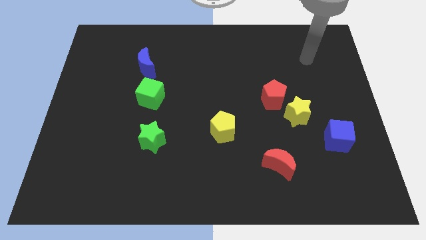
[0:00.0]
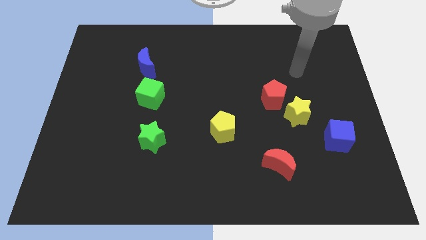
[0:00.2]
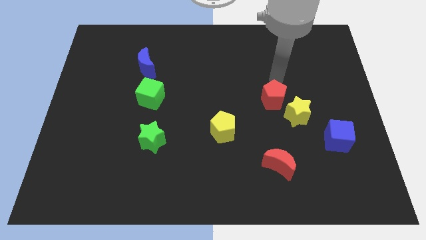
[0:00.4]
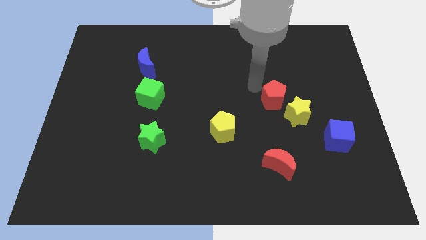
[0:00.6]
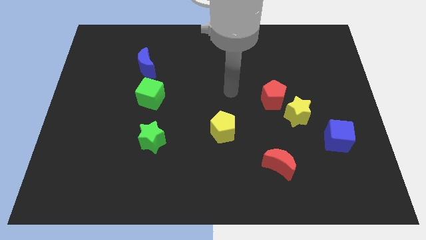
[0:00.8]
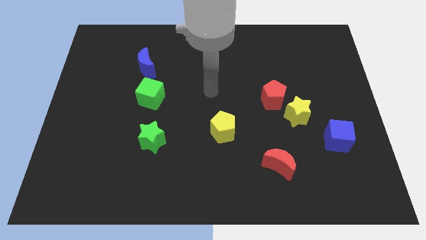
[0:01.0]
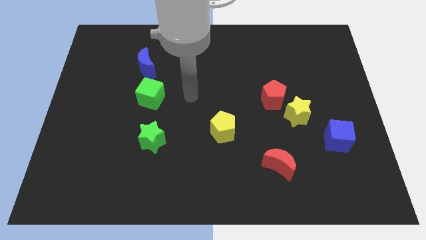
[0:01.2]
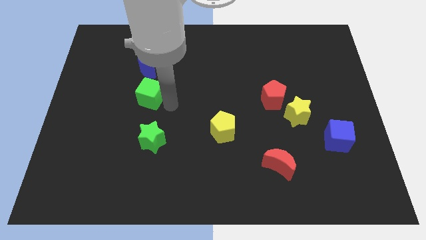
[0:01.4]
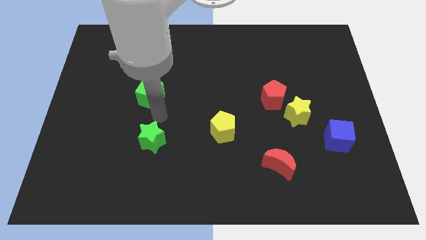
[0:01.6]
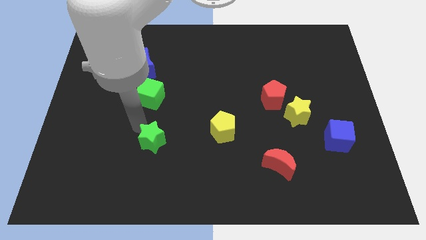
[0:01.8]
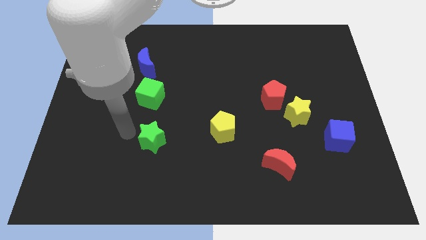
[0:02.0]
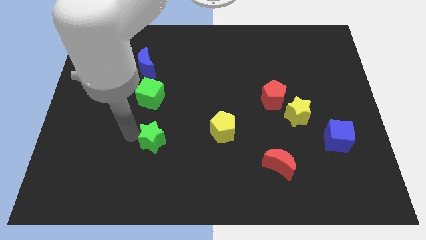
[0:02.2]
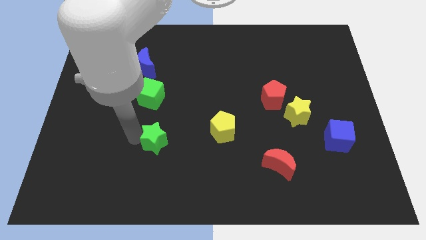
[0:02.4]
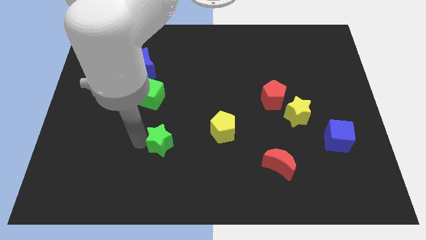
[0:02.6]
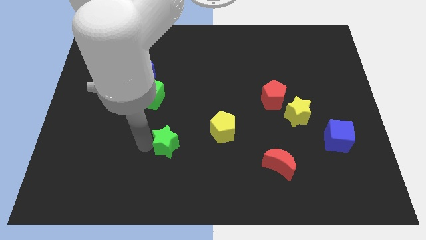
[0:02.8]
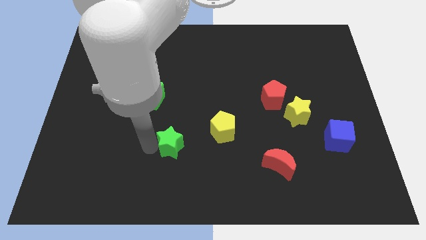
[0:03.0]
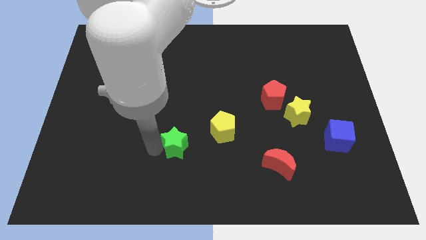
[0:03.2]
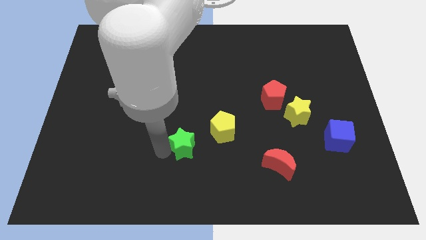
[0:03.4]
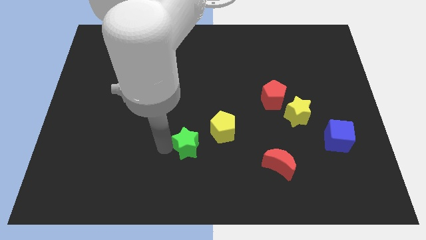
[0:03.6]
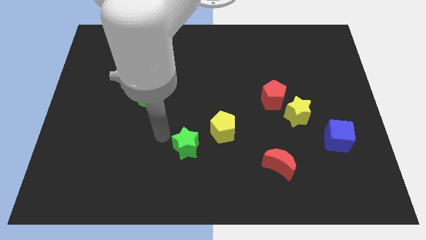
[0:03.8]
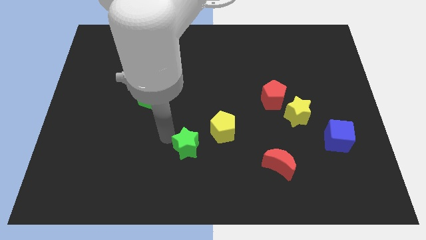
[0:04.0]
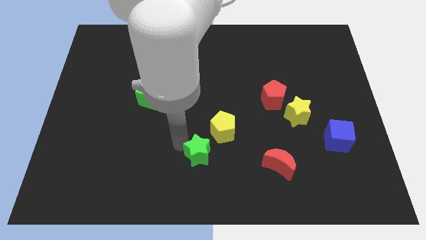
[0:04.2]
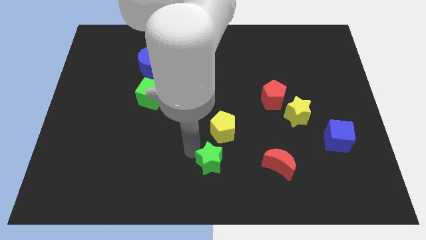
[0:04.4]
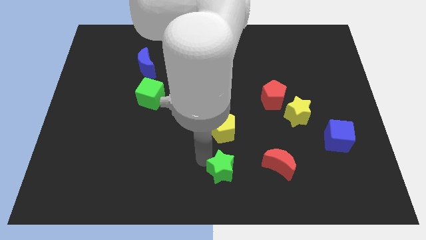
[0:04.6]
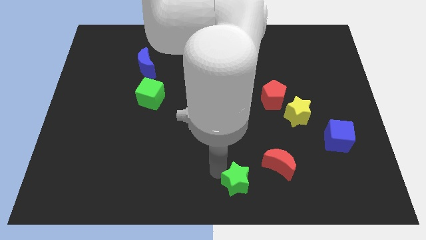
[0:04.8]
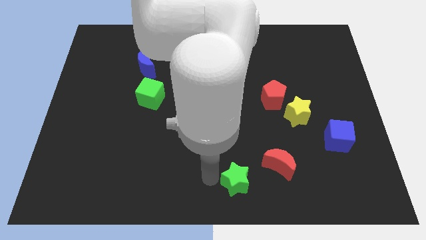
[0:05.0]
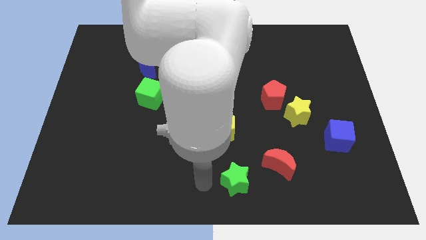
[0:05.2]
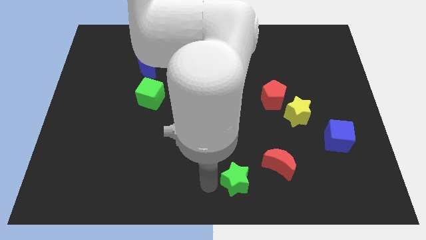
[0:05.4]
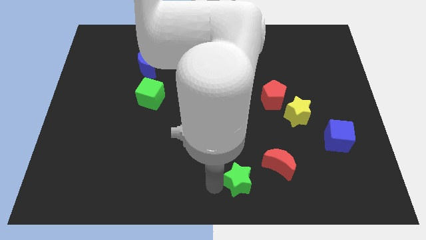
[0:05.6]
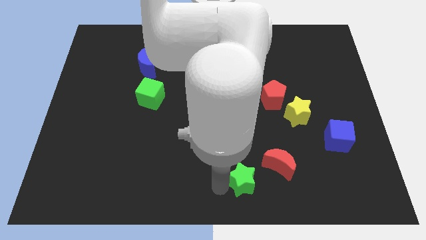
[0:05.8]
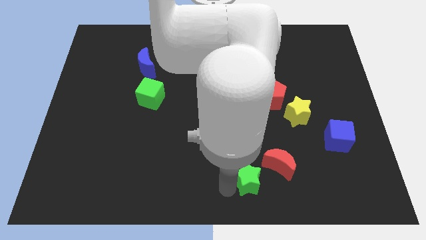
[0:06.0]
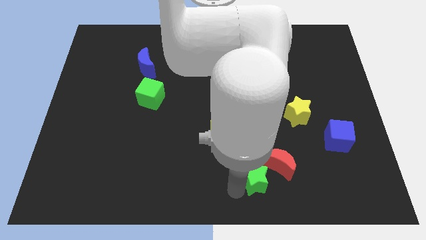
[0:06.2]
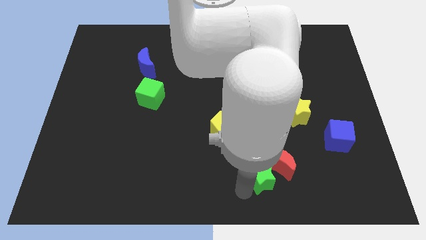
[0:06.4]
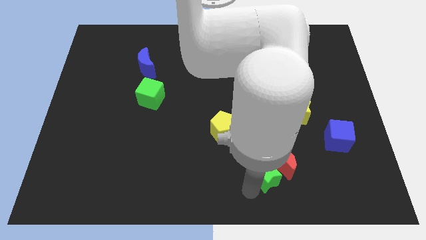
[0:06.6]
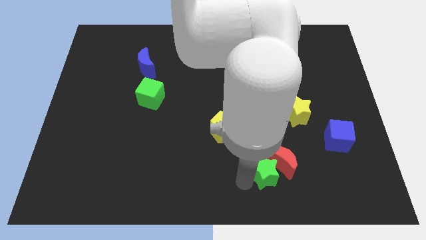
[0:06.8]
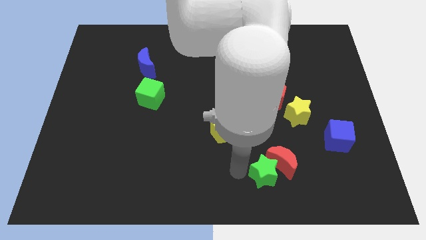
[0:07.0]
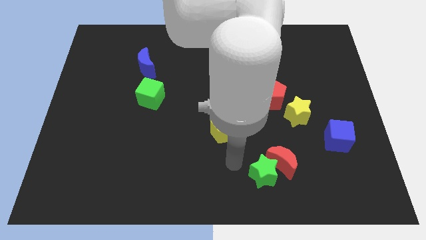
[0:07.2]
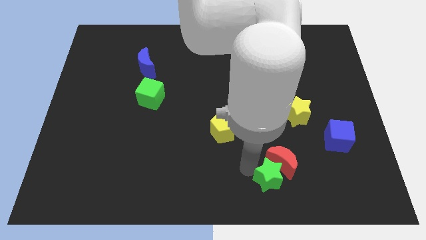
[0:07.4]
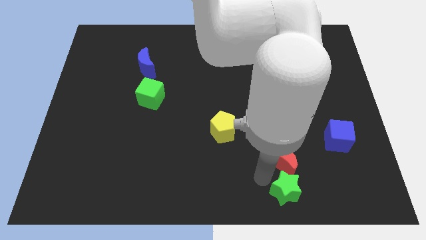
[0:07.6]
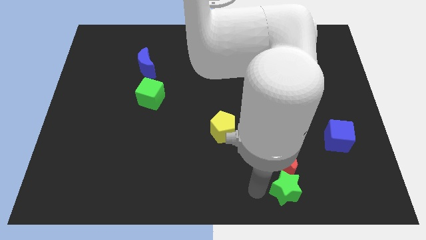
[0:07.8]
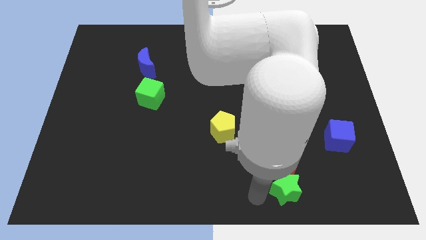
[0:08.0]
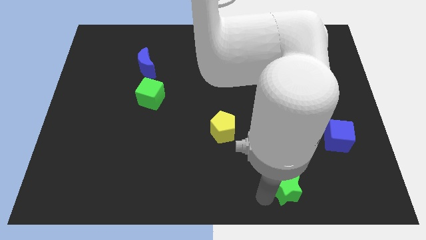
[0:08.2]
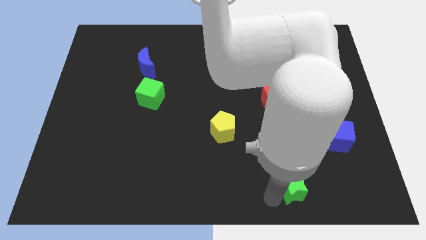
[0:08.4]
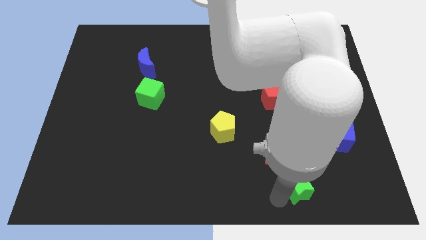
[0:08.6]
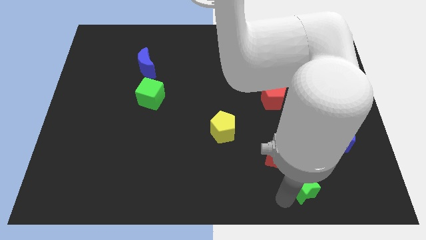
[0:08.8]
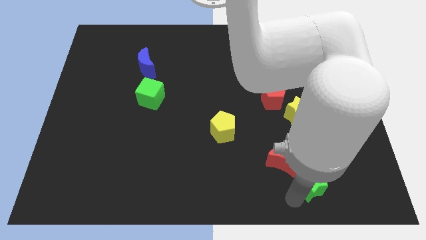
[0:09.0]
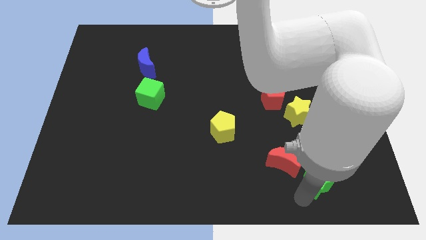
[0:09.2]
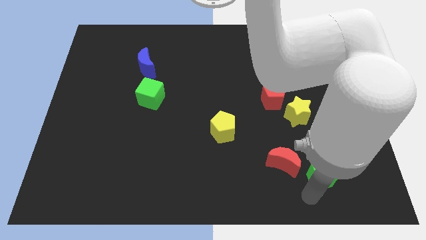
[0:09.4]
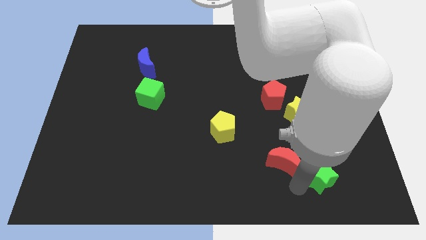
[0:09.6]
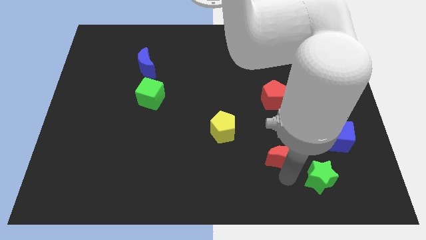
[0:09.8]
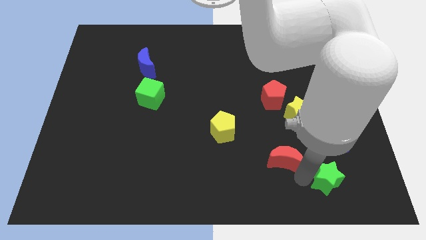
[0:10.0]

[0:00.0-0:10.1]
move the green star below the blue cube

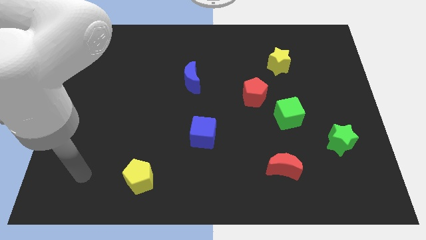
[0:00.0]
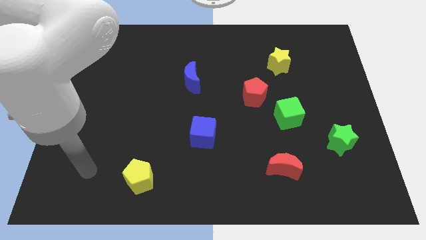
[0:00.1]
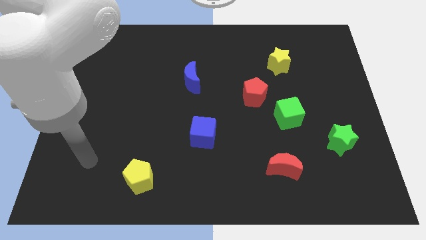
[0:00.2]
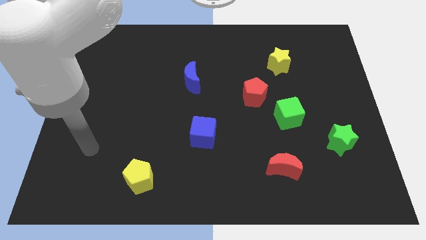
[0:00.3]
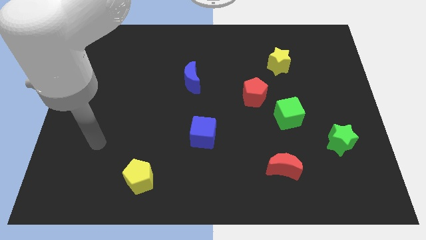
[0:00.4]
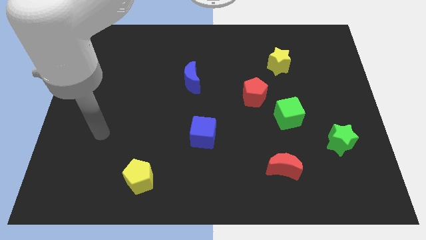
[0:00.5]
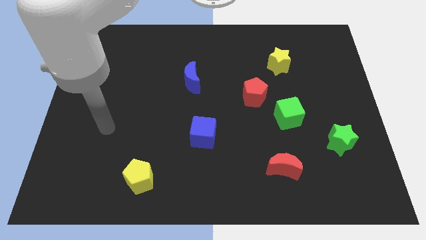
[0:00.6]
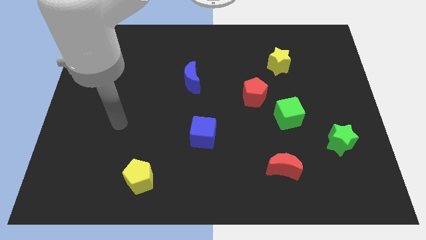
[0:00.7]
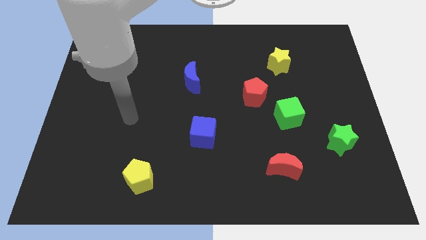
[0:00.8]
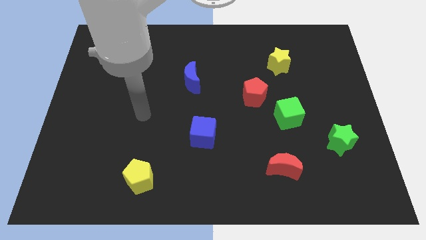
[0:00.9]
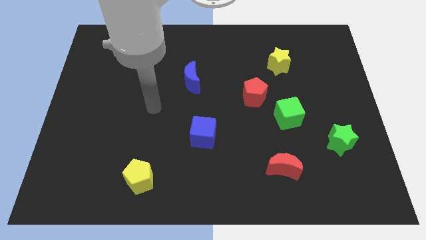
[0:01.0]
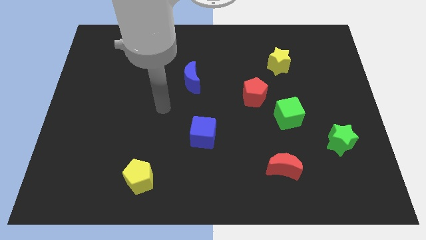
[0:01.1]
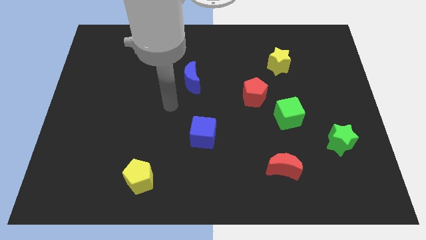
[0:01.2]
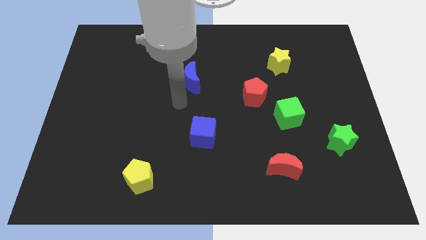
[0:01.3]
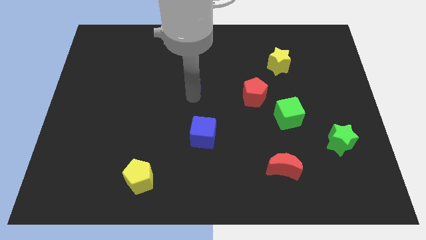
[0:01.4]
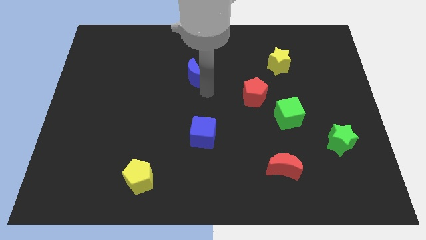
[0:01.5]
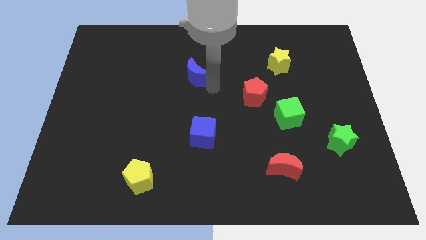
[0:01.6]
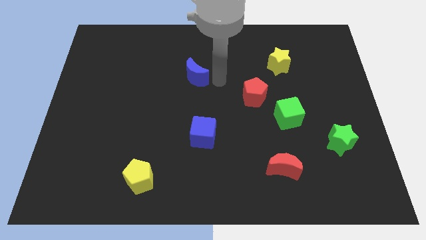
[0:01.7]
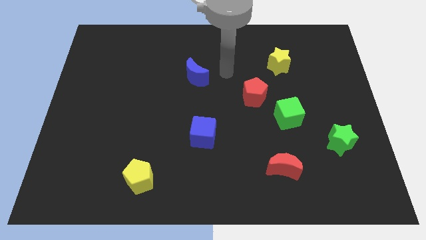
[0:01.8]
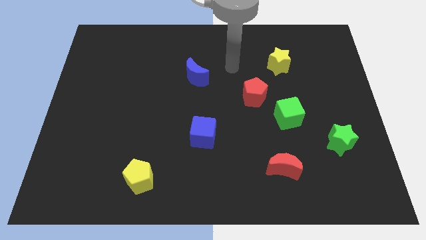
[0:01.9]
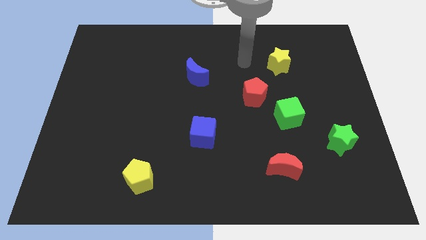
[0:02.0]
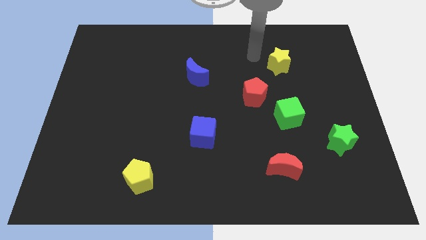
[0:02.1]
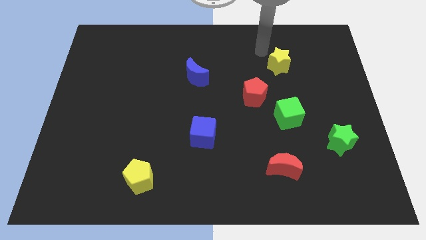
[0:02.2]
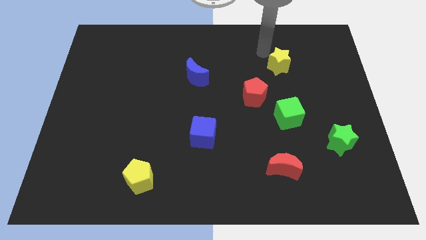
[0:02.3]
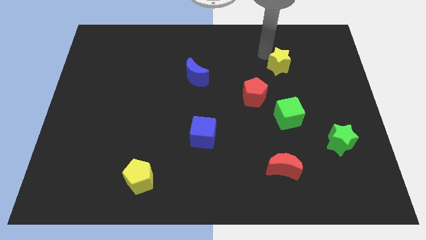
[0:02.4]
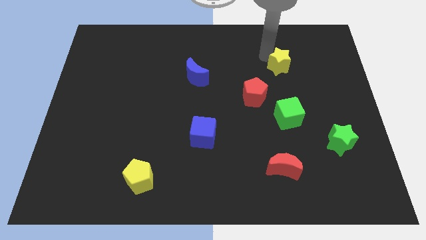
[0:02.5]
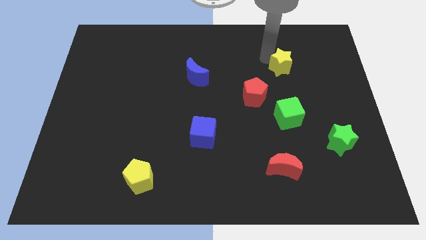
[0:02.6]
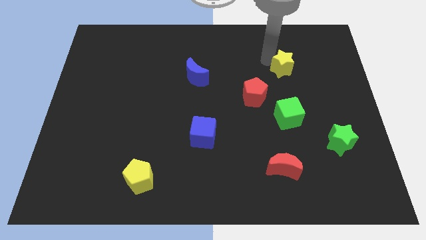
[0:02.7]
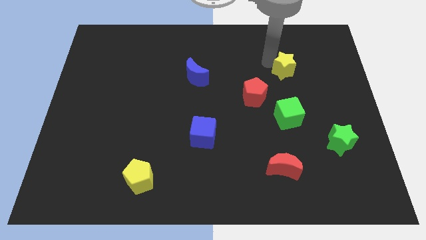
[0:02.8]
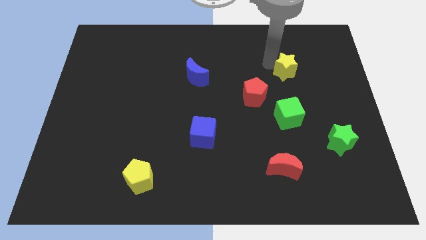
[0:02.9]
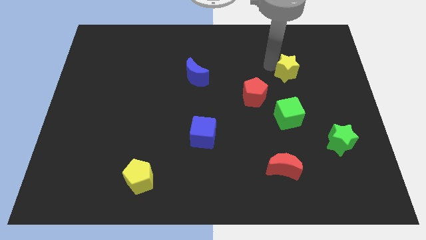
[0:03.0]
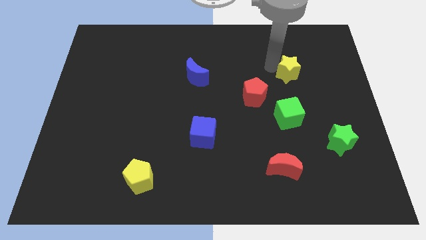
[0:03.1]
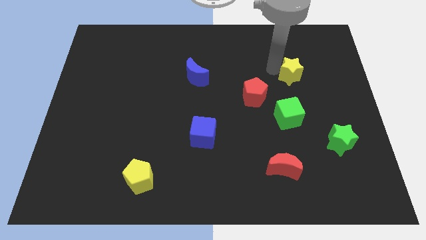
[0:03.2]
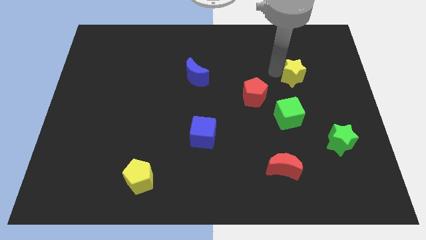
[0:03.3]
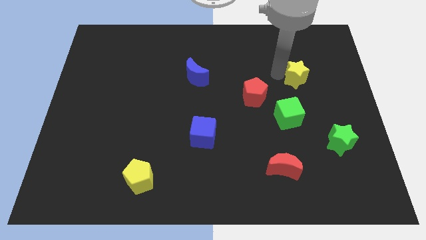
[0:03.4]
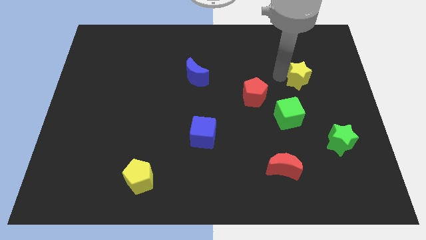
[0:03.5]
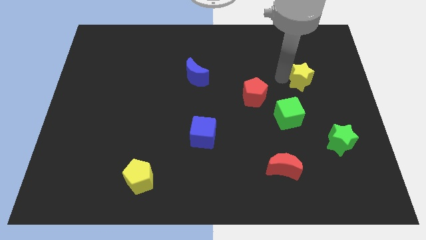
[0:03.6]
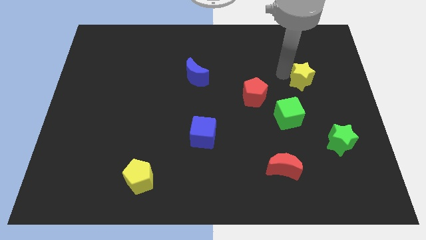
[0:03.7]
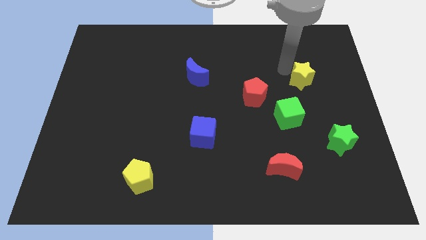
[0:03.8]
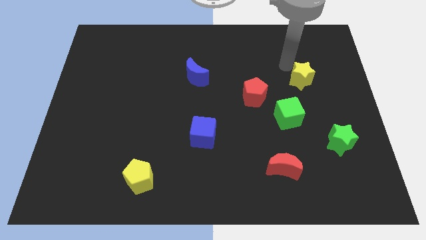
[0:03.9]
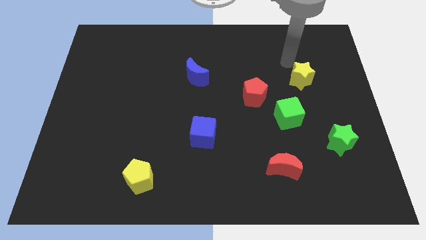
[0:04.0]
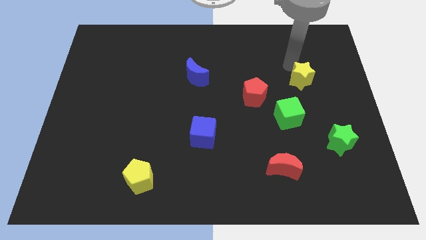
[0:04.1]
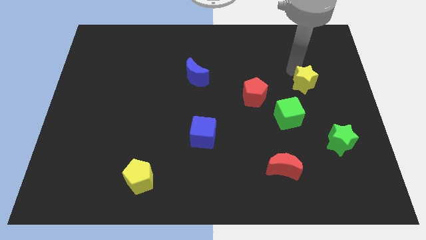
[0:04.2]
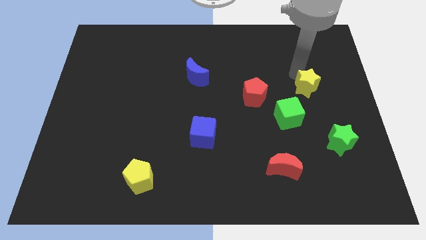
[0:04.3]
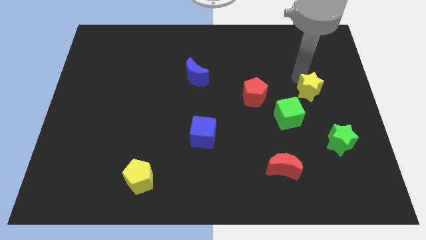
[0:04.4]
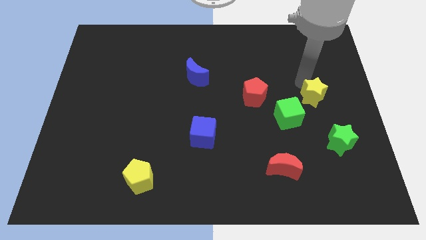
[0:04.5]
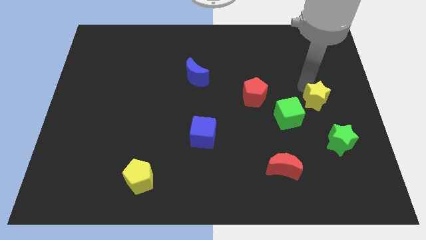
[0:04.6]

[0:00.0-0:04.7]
push the yellow star right of the green cube
